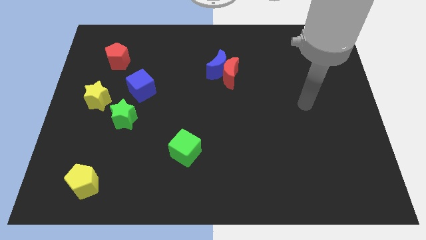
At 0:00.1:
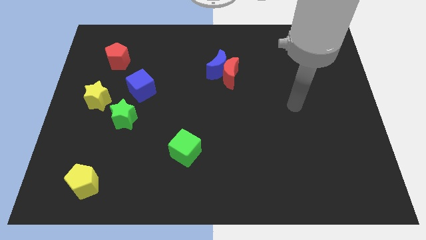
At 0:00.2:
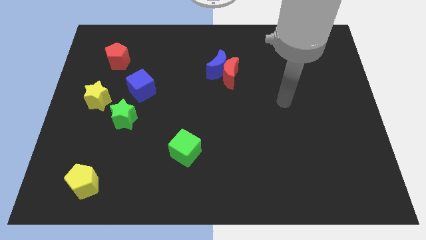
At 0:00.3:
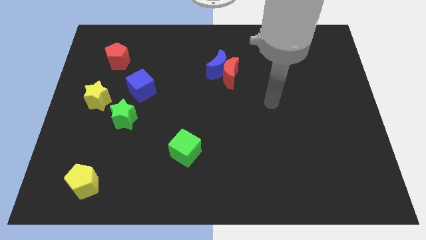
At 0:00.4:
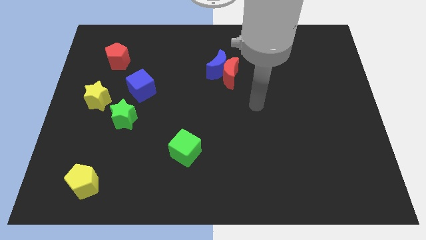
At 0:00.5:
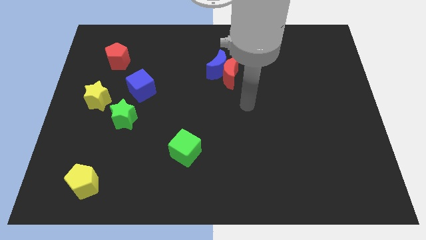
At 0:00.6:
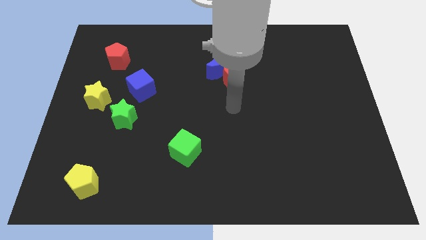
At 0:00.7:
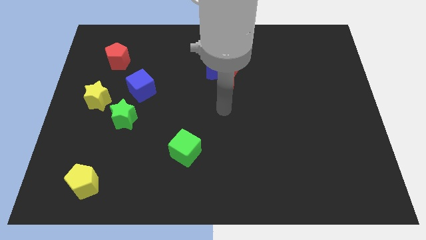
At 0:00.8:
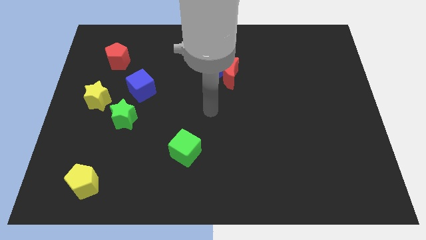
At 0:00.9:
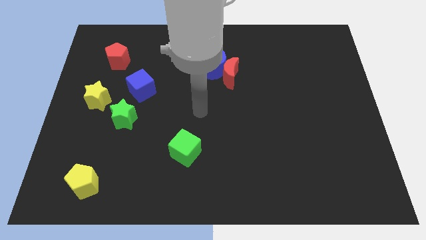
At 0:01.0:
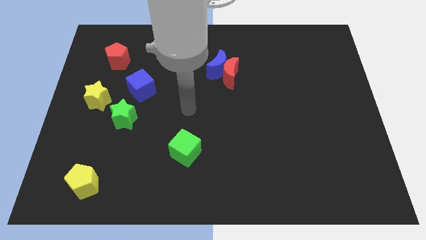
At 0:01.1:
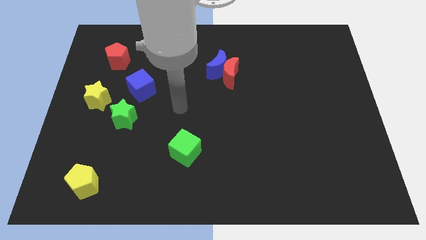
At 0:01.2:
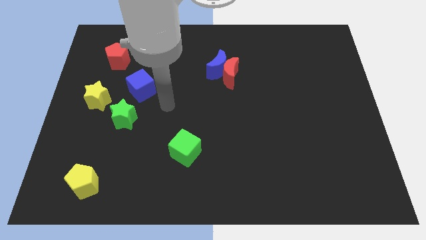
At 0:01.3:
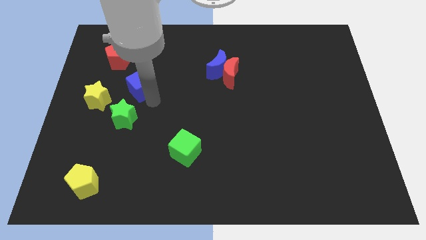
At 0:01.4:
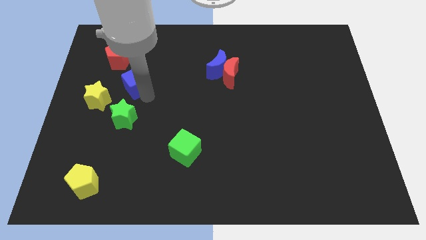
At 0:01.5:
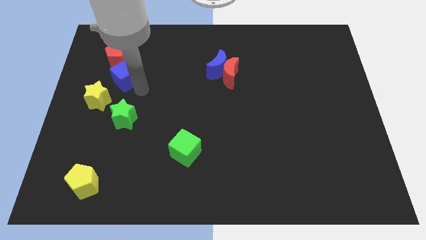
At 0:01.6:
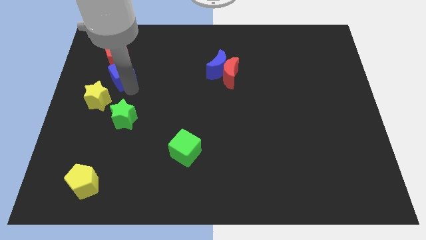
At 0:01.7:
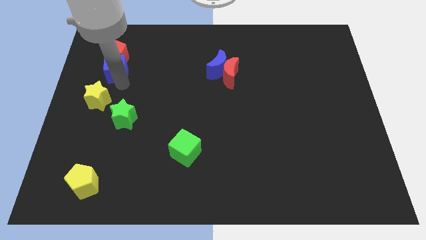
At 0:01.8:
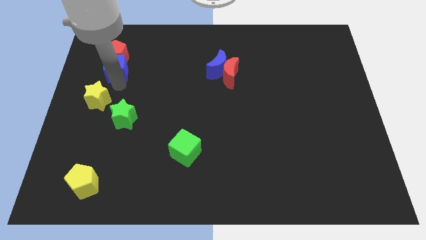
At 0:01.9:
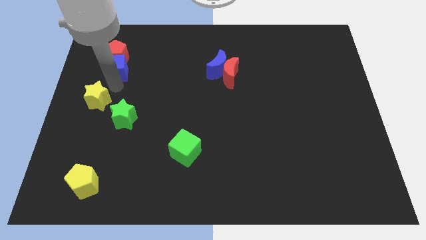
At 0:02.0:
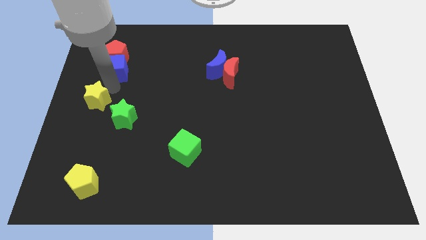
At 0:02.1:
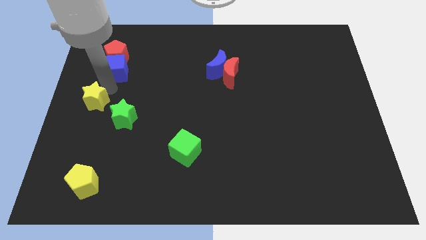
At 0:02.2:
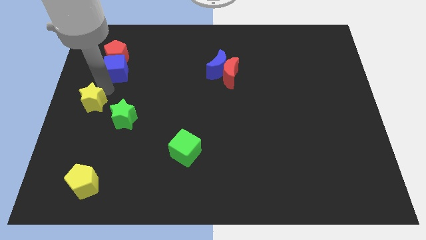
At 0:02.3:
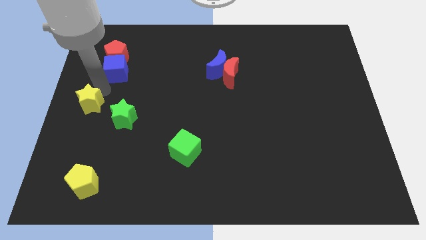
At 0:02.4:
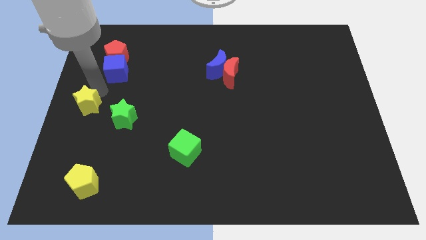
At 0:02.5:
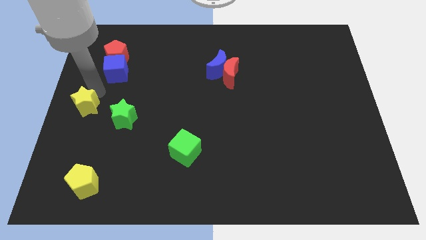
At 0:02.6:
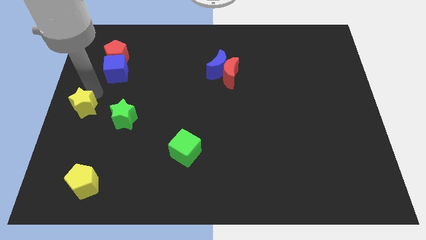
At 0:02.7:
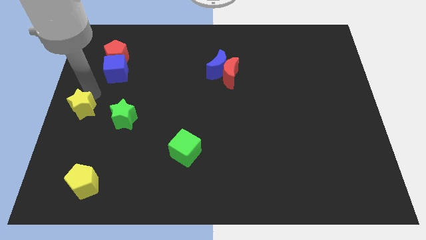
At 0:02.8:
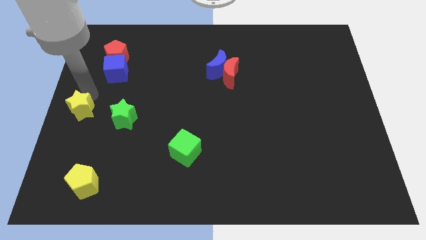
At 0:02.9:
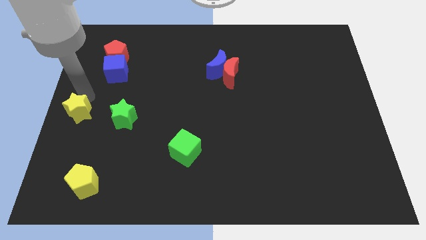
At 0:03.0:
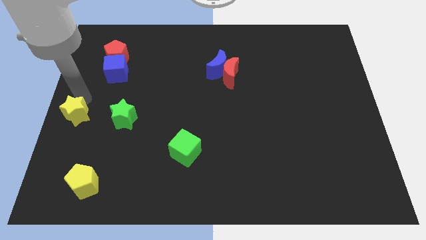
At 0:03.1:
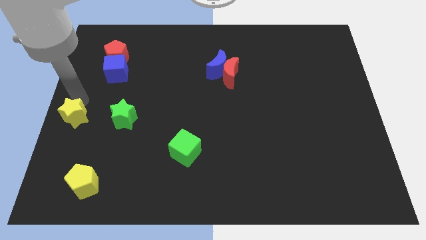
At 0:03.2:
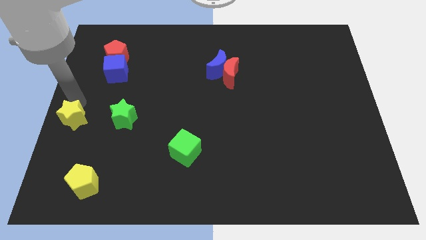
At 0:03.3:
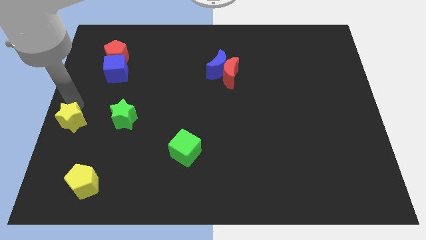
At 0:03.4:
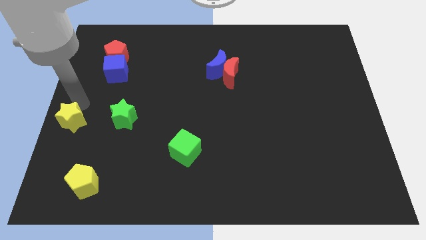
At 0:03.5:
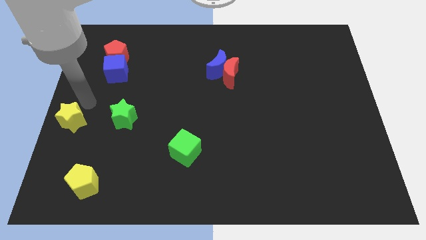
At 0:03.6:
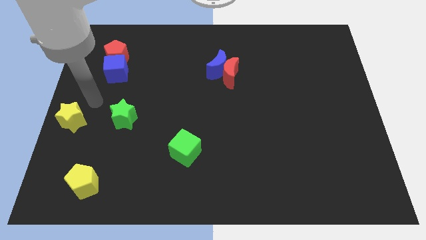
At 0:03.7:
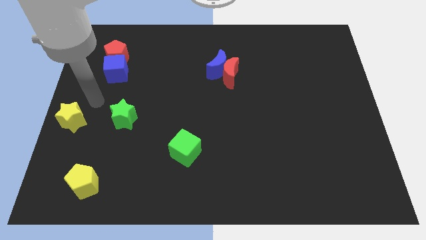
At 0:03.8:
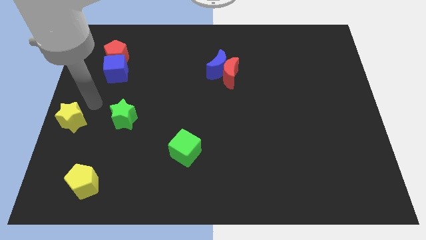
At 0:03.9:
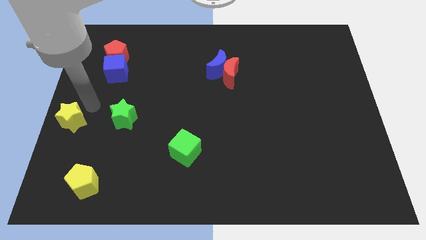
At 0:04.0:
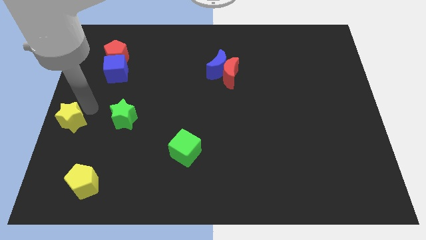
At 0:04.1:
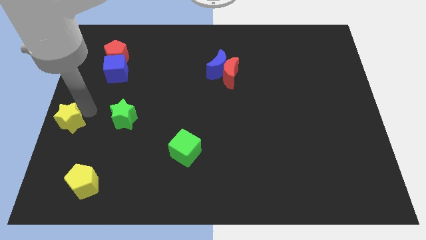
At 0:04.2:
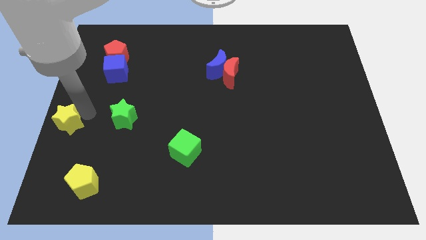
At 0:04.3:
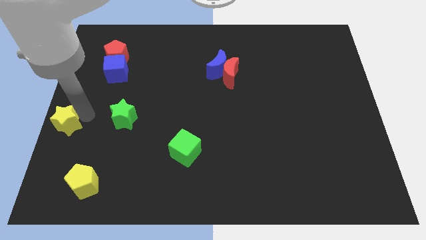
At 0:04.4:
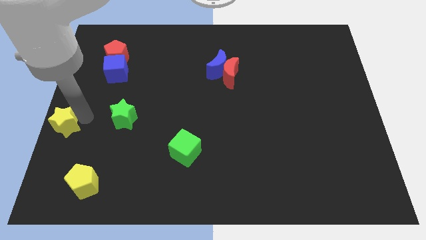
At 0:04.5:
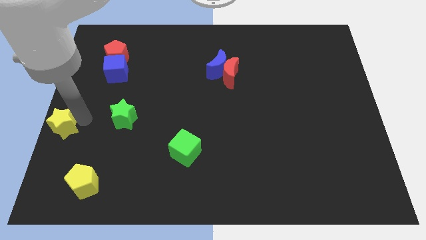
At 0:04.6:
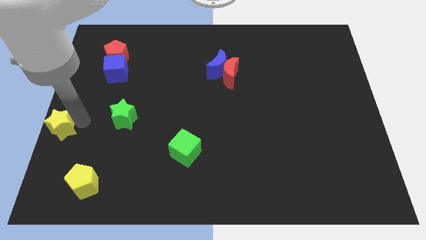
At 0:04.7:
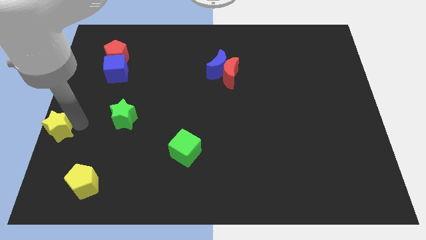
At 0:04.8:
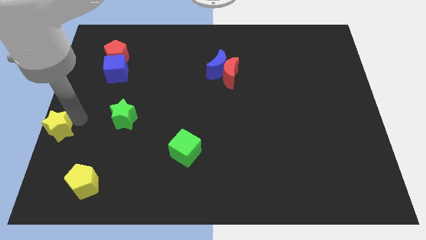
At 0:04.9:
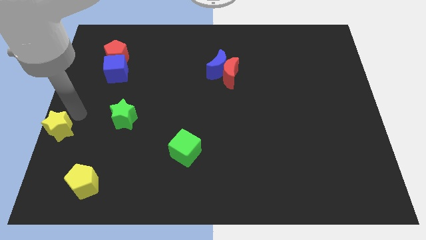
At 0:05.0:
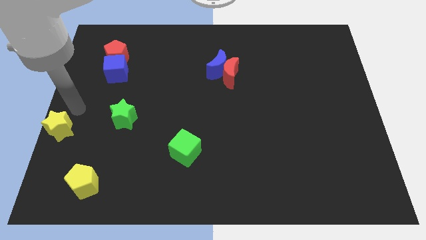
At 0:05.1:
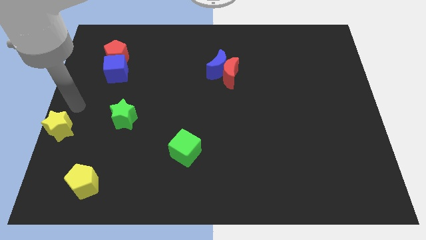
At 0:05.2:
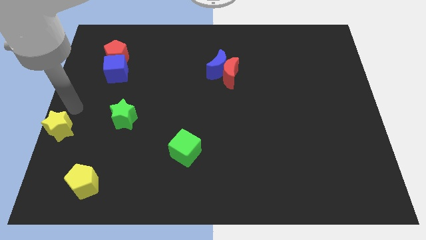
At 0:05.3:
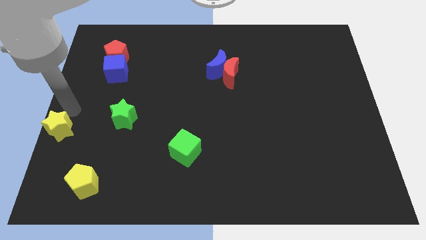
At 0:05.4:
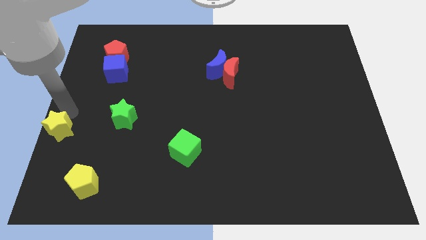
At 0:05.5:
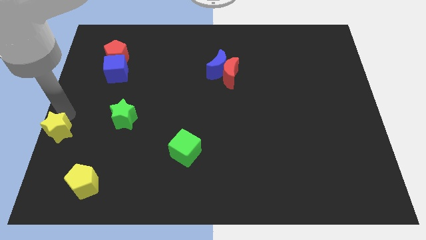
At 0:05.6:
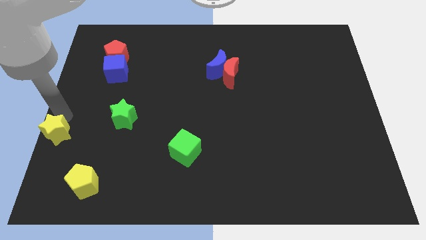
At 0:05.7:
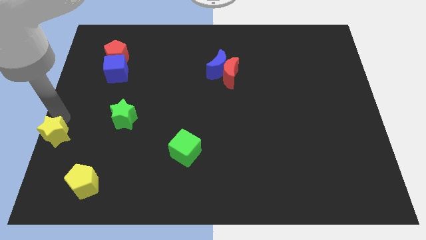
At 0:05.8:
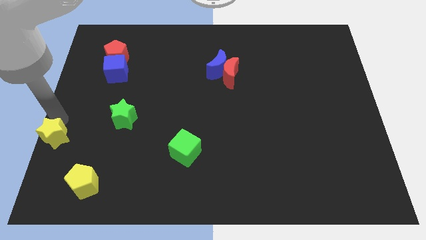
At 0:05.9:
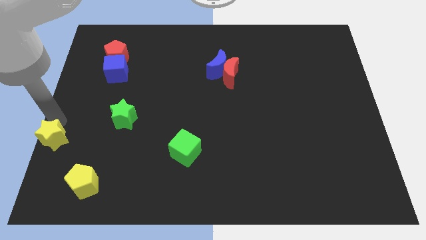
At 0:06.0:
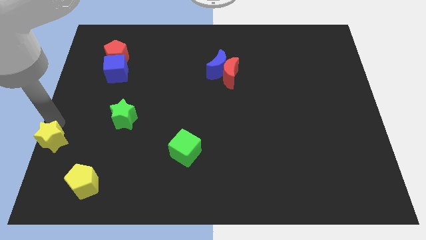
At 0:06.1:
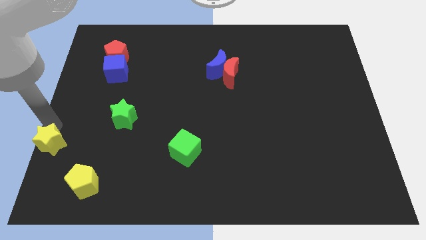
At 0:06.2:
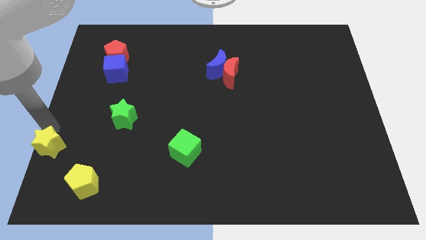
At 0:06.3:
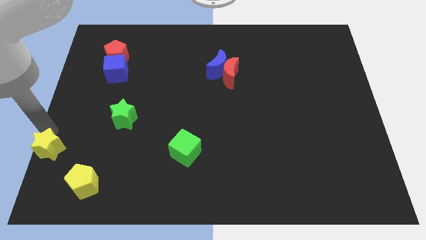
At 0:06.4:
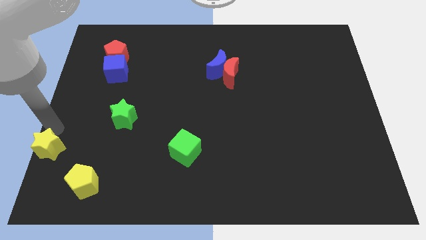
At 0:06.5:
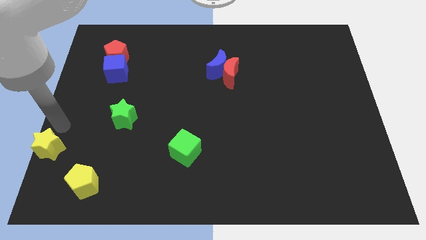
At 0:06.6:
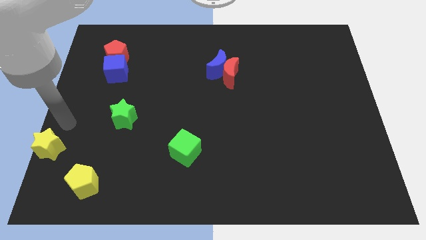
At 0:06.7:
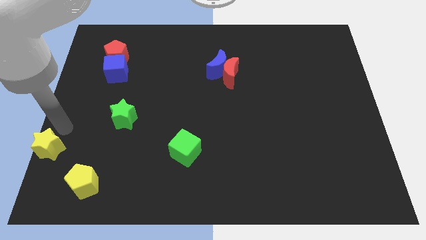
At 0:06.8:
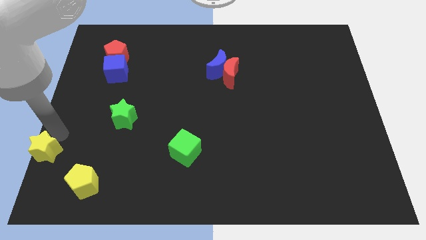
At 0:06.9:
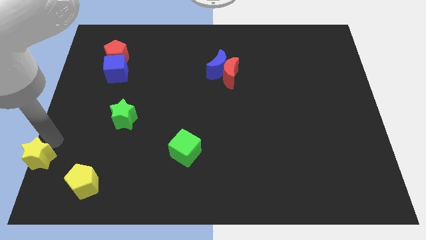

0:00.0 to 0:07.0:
put the yellow star to the bottom left
